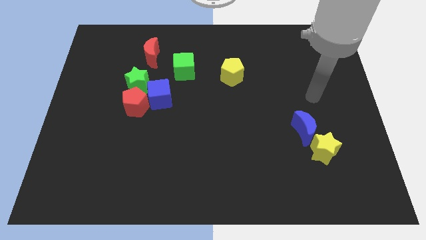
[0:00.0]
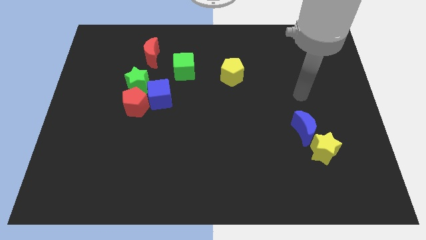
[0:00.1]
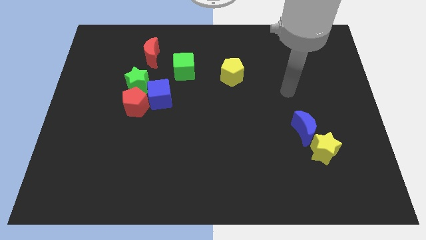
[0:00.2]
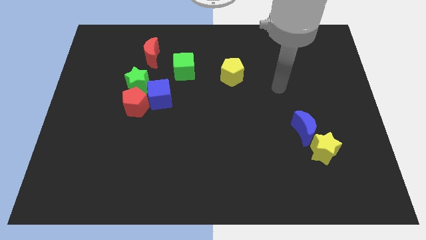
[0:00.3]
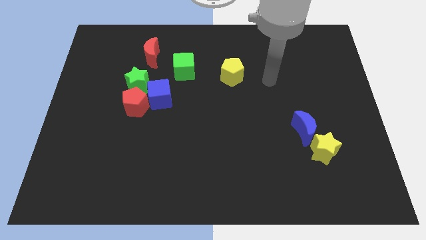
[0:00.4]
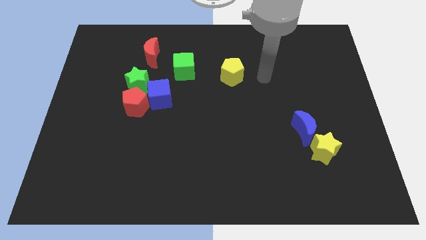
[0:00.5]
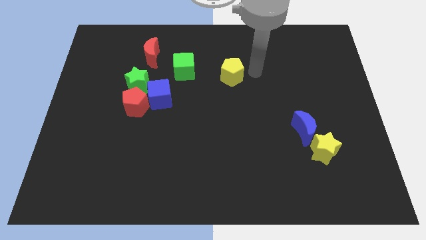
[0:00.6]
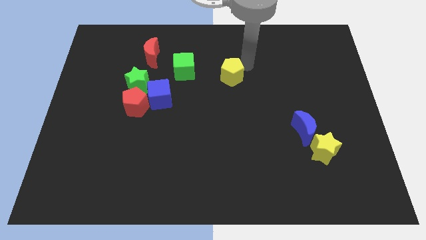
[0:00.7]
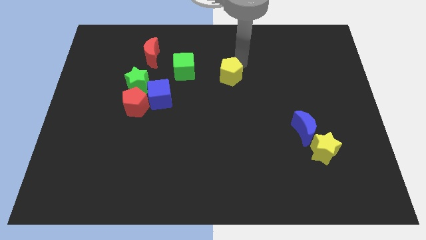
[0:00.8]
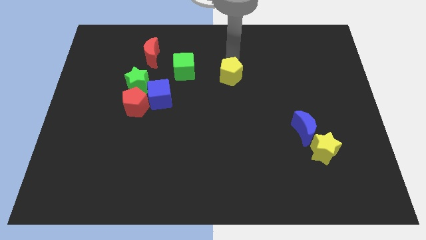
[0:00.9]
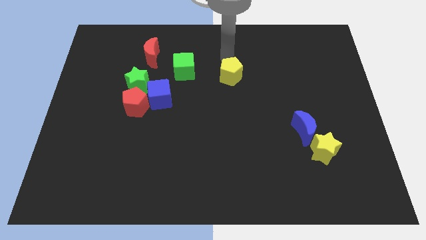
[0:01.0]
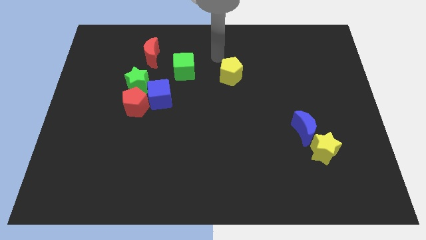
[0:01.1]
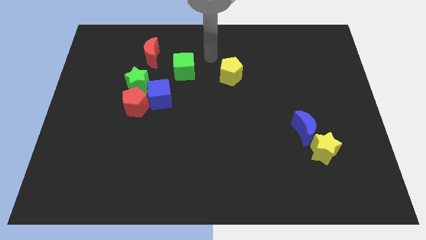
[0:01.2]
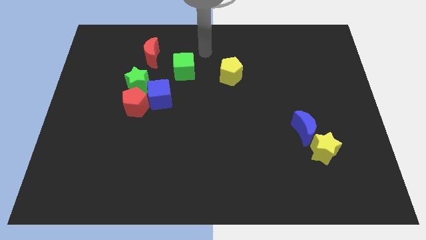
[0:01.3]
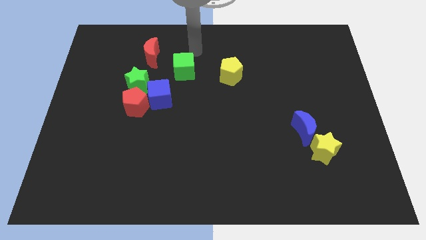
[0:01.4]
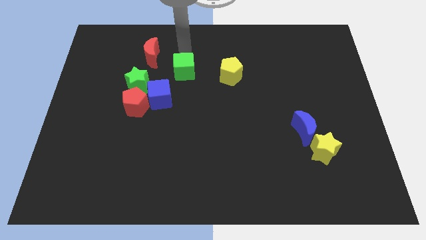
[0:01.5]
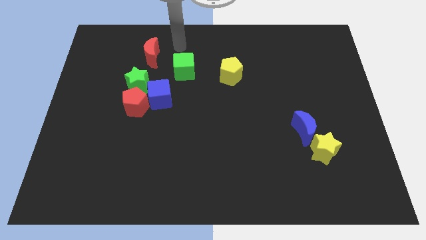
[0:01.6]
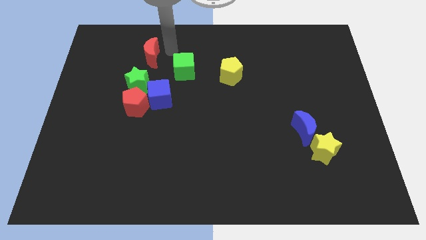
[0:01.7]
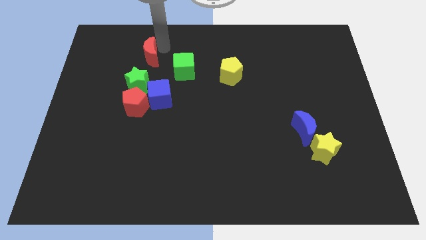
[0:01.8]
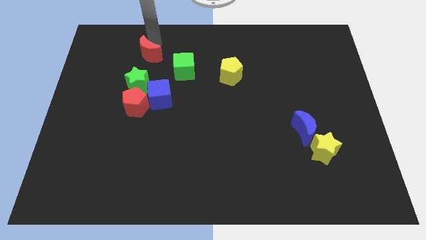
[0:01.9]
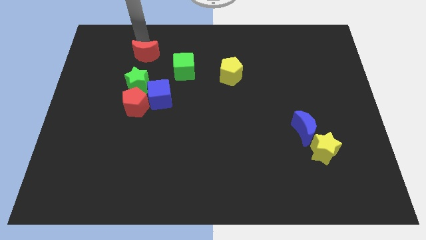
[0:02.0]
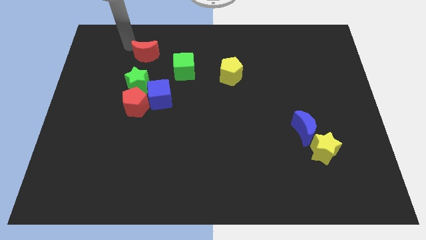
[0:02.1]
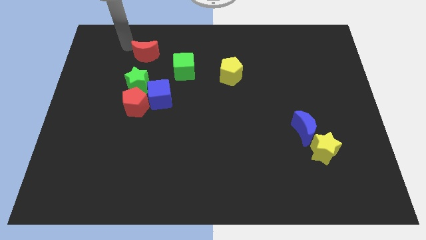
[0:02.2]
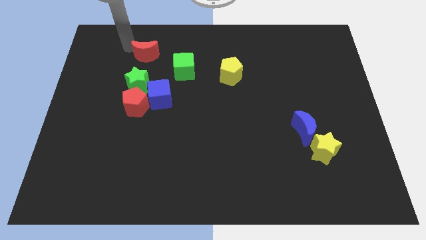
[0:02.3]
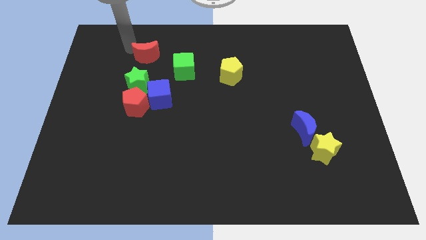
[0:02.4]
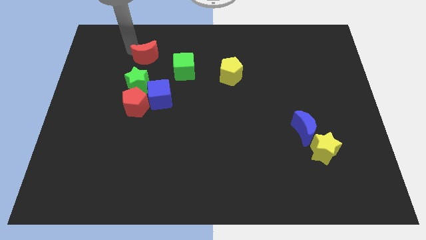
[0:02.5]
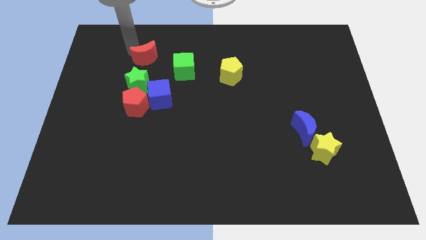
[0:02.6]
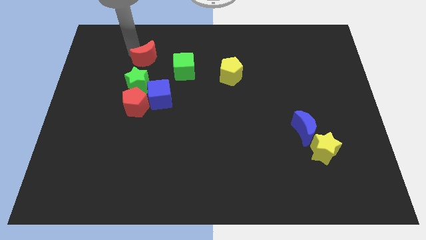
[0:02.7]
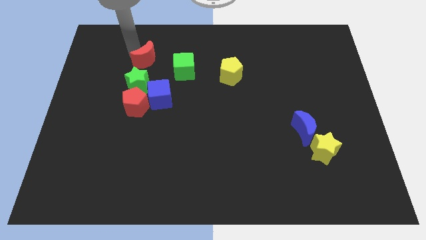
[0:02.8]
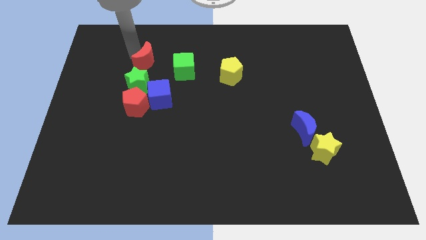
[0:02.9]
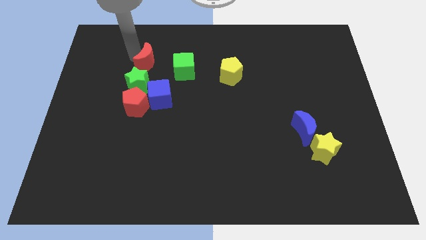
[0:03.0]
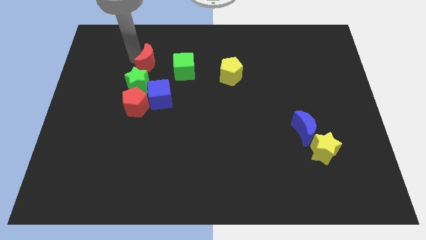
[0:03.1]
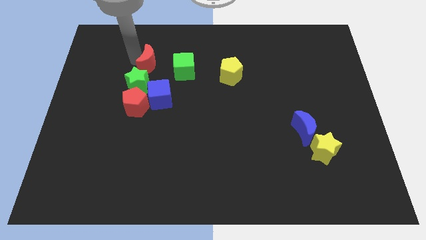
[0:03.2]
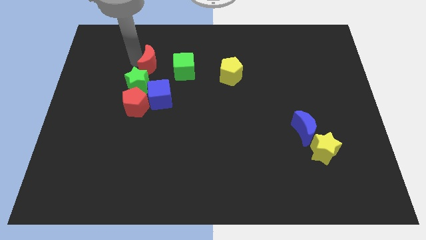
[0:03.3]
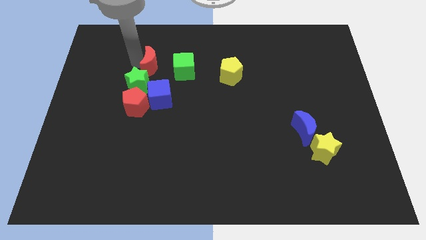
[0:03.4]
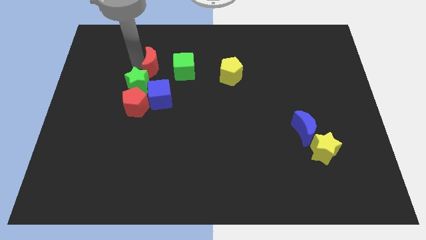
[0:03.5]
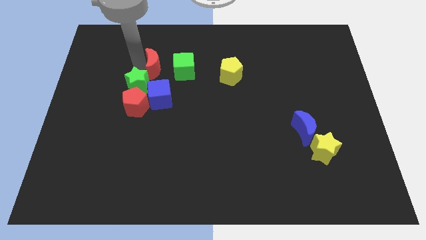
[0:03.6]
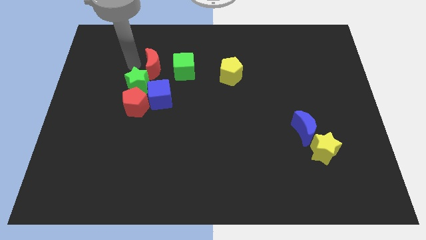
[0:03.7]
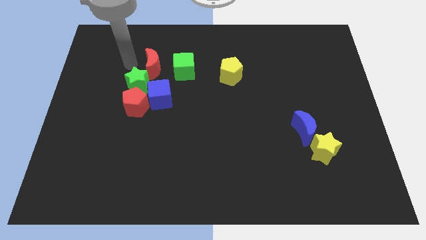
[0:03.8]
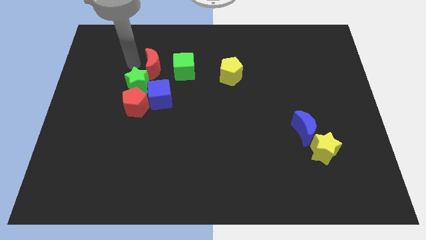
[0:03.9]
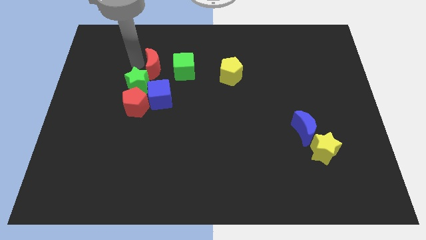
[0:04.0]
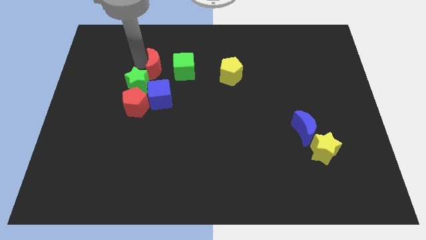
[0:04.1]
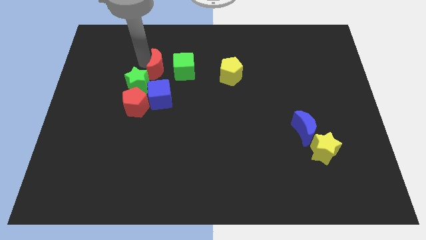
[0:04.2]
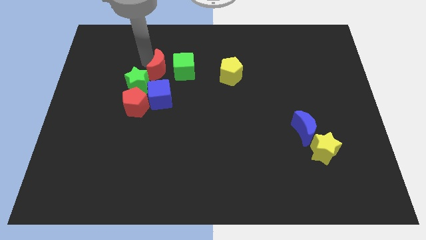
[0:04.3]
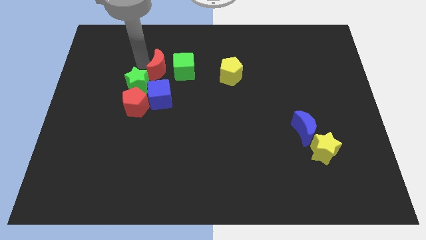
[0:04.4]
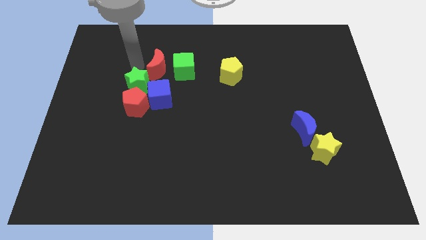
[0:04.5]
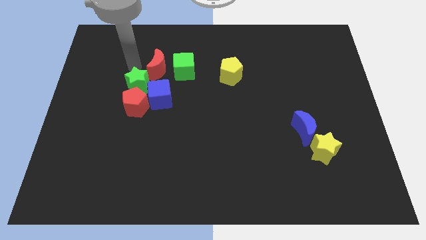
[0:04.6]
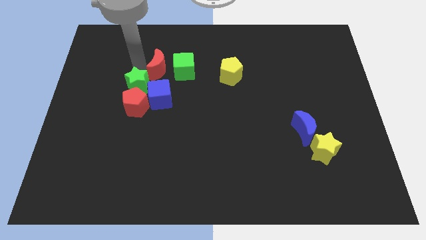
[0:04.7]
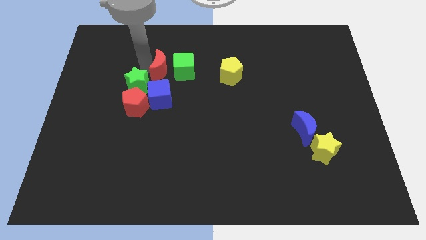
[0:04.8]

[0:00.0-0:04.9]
move the red moon close to the green cube

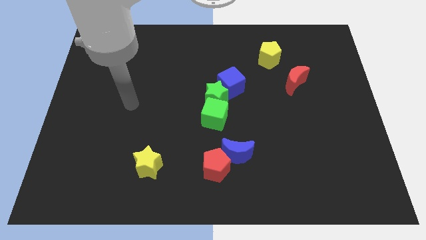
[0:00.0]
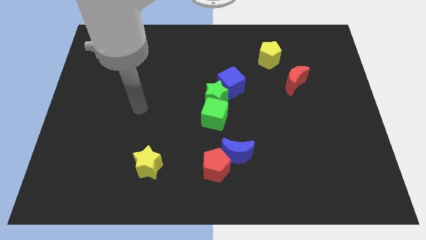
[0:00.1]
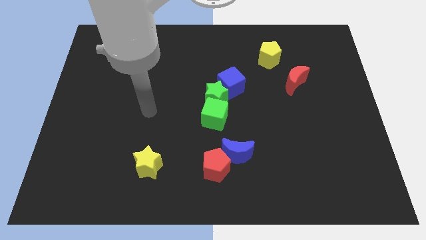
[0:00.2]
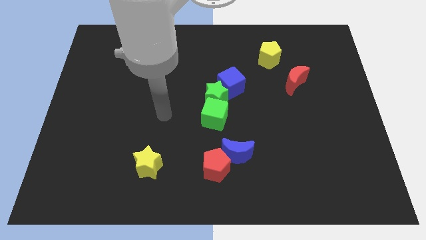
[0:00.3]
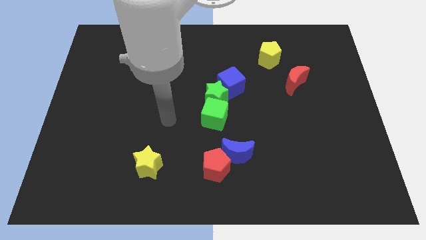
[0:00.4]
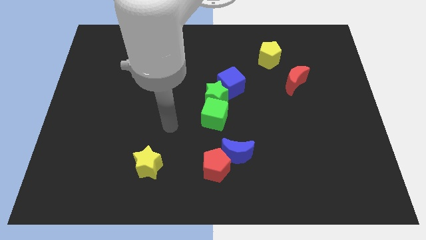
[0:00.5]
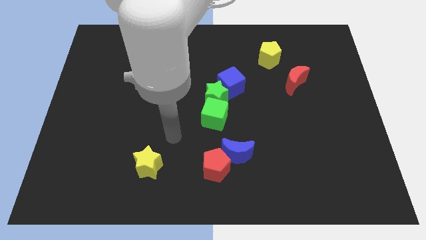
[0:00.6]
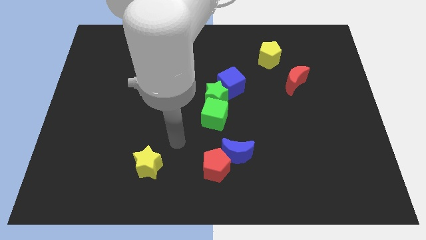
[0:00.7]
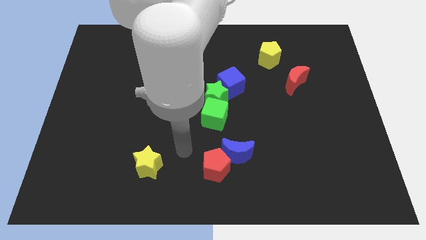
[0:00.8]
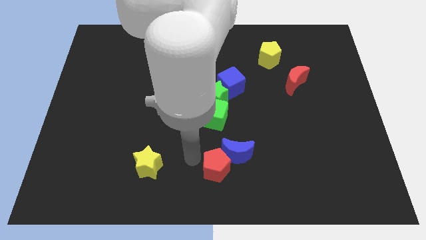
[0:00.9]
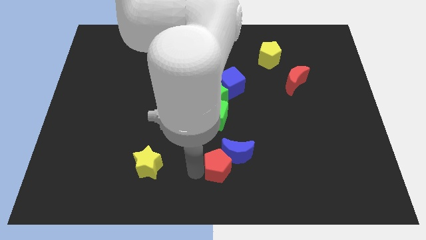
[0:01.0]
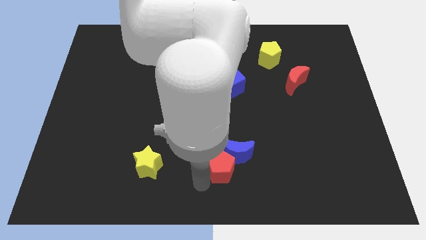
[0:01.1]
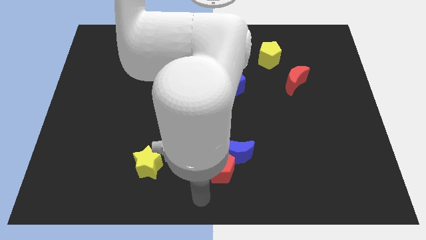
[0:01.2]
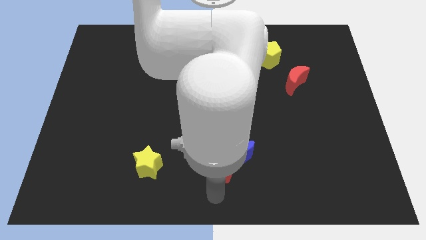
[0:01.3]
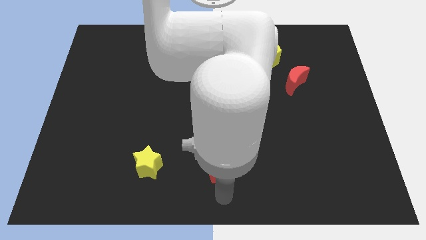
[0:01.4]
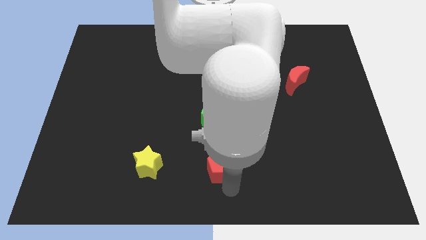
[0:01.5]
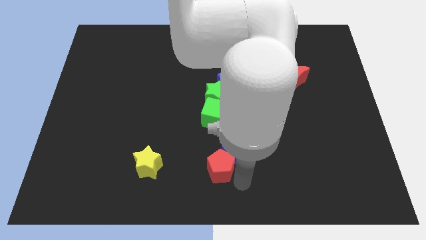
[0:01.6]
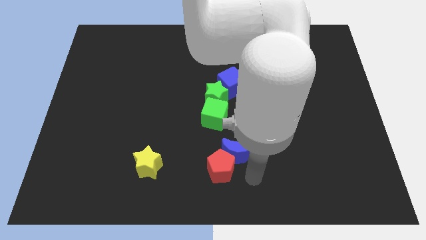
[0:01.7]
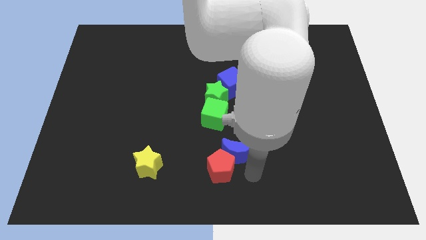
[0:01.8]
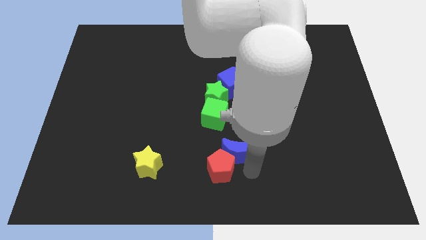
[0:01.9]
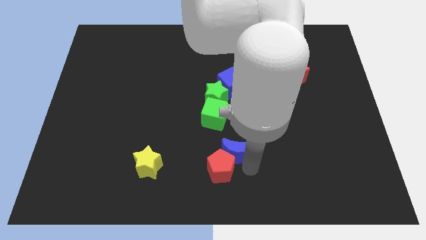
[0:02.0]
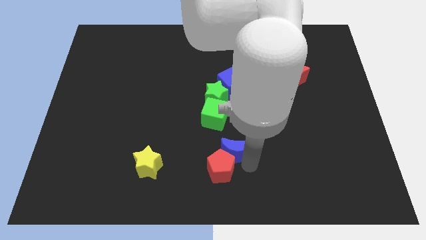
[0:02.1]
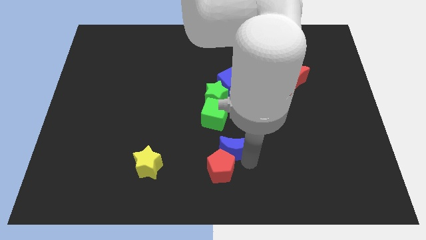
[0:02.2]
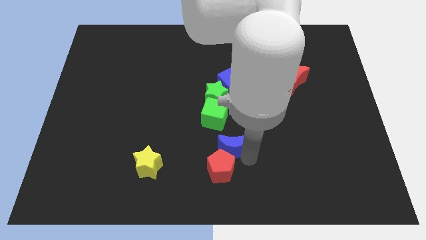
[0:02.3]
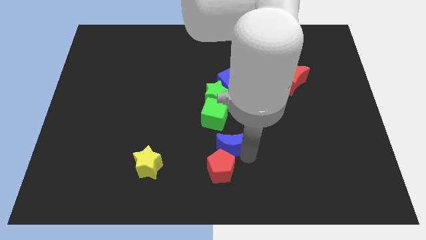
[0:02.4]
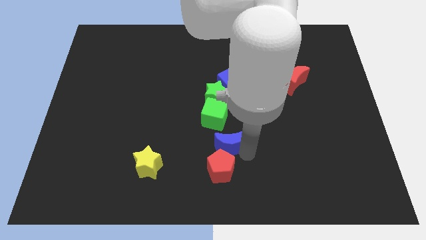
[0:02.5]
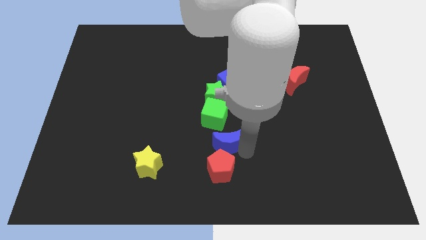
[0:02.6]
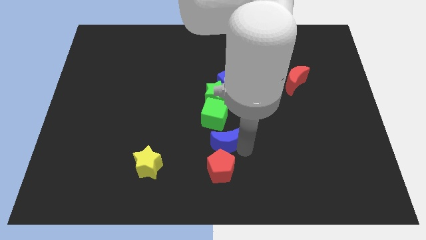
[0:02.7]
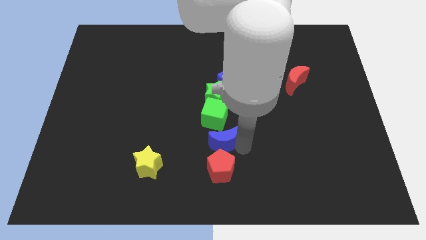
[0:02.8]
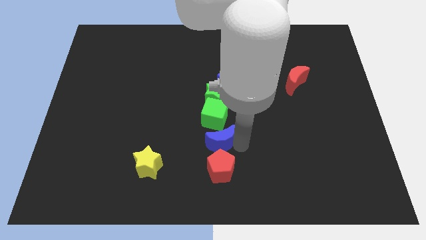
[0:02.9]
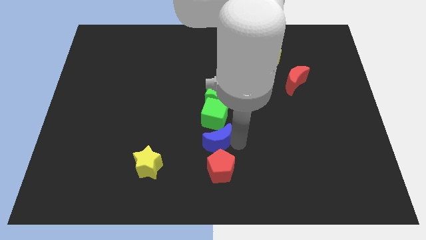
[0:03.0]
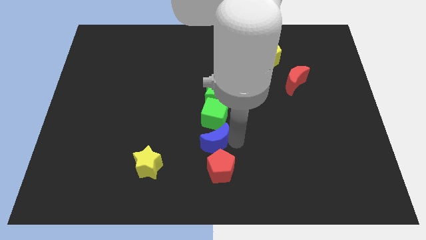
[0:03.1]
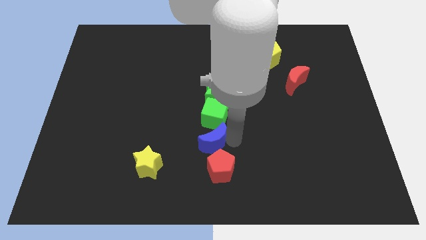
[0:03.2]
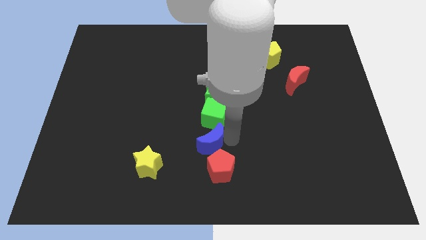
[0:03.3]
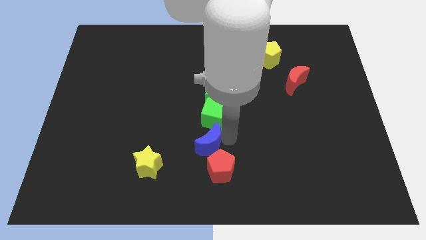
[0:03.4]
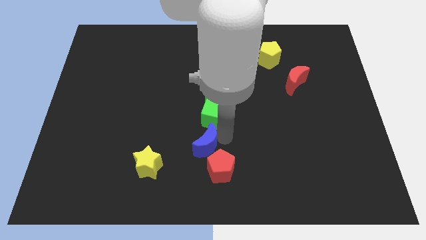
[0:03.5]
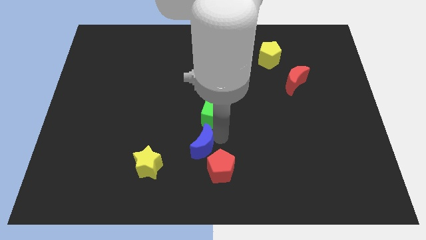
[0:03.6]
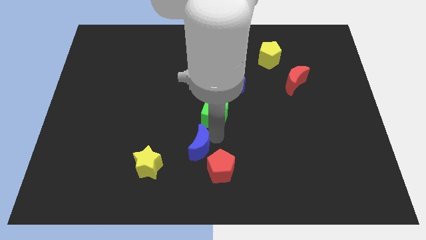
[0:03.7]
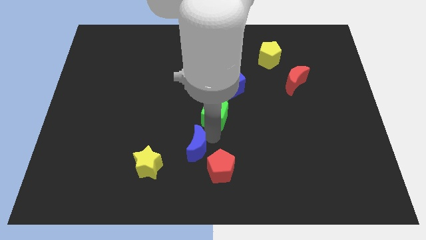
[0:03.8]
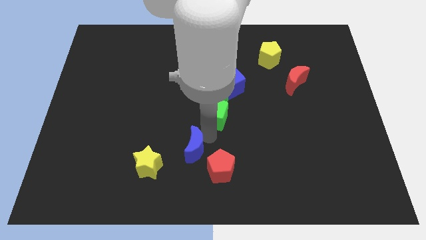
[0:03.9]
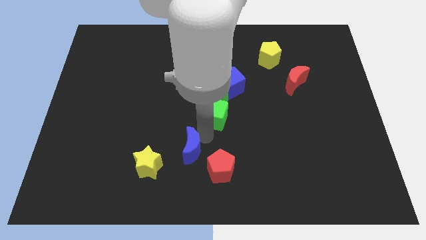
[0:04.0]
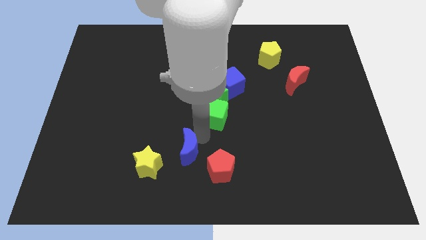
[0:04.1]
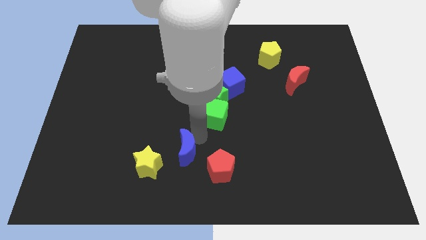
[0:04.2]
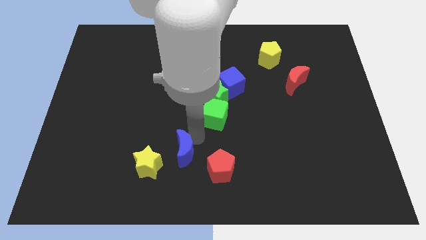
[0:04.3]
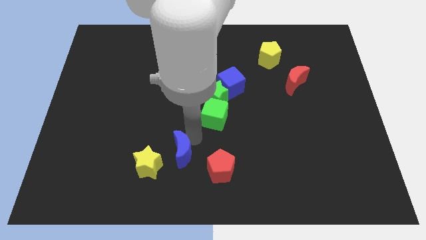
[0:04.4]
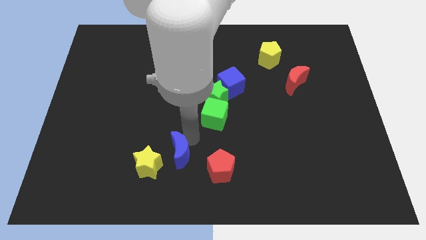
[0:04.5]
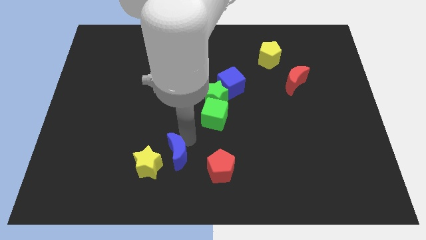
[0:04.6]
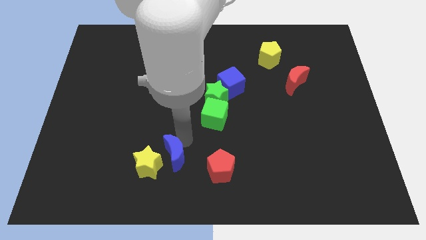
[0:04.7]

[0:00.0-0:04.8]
push the blue moon next to the yellow star
